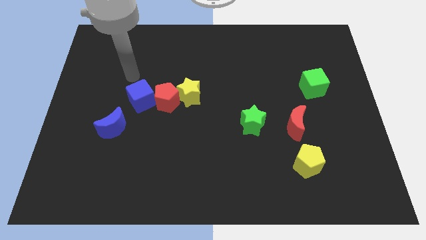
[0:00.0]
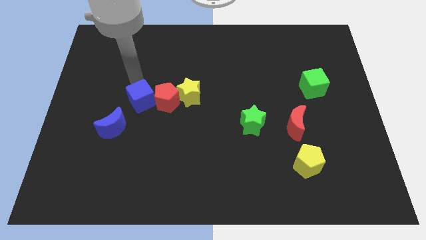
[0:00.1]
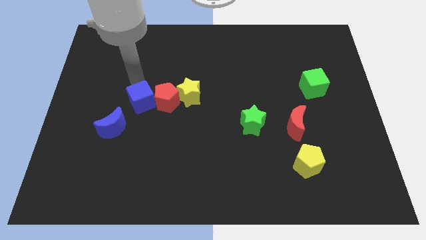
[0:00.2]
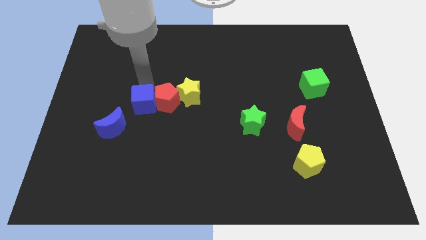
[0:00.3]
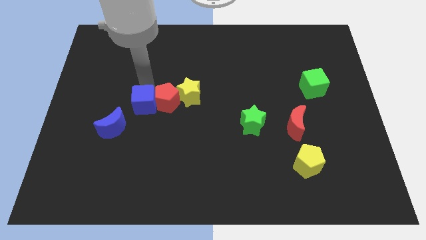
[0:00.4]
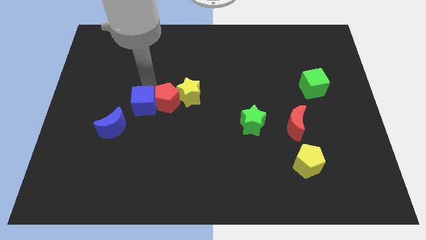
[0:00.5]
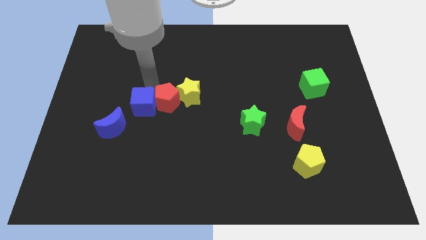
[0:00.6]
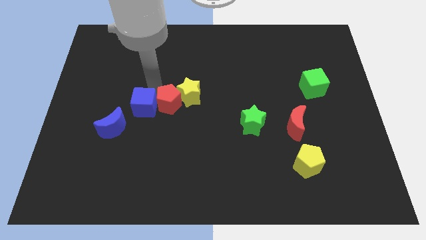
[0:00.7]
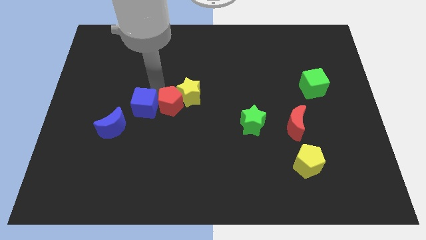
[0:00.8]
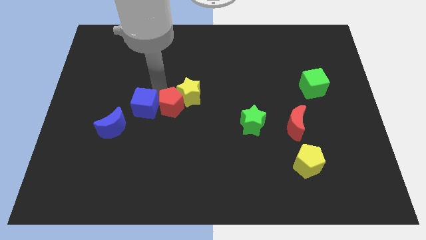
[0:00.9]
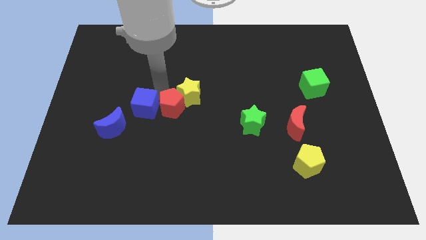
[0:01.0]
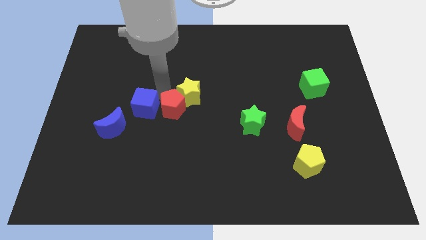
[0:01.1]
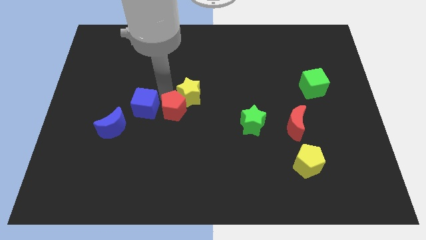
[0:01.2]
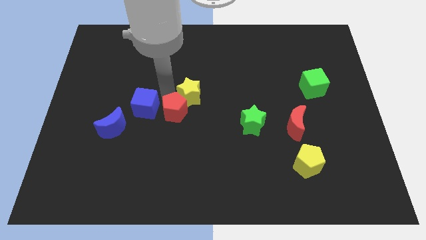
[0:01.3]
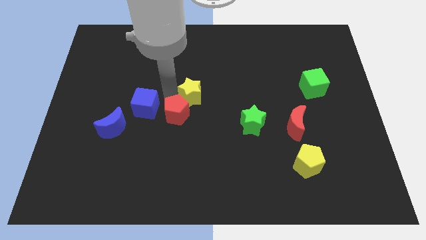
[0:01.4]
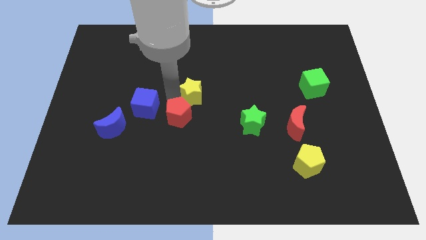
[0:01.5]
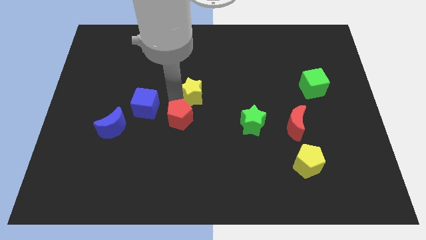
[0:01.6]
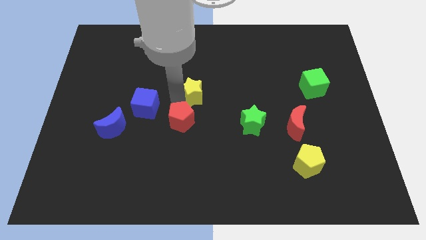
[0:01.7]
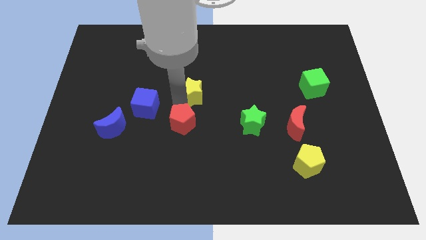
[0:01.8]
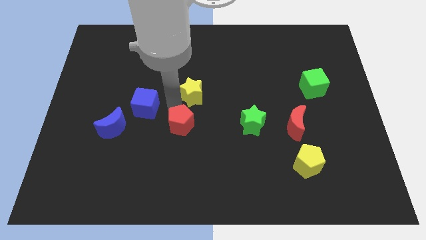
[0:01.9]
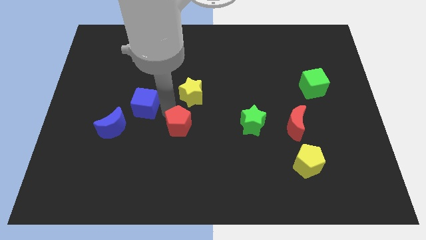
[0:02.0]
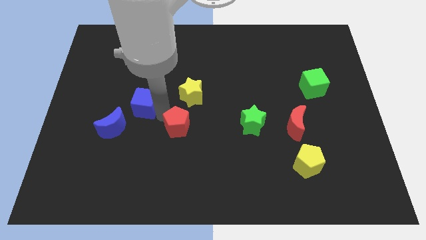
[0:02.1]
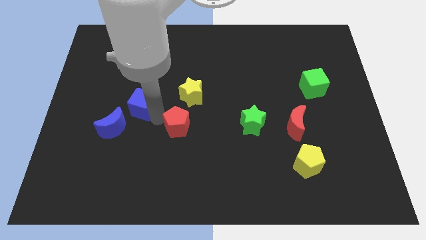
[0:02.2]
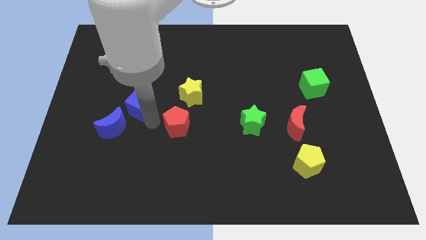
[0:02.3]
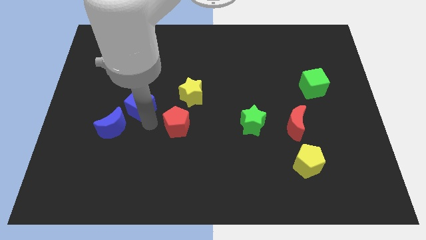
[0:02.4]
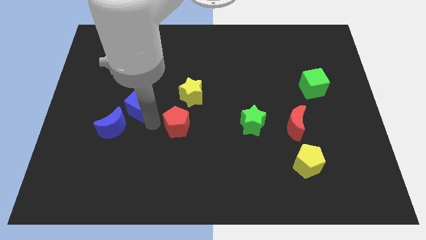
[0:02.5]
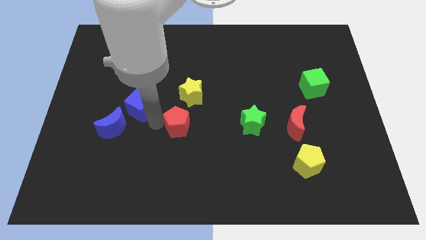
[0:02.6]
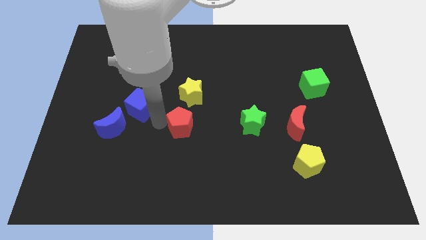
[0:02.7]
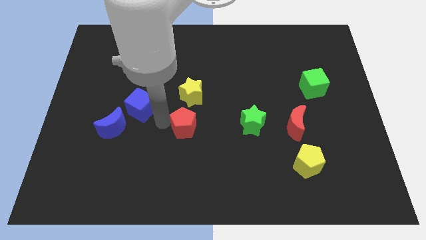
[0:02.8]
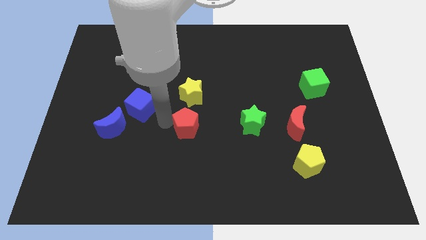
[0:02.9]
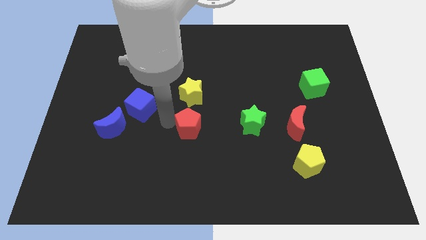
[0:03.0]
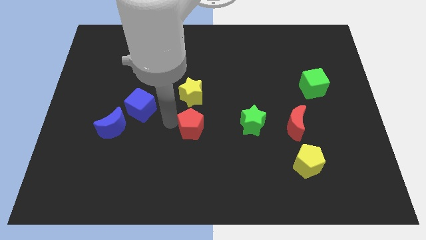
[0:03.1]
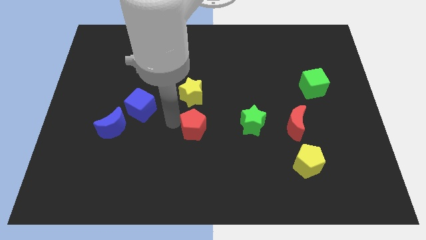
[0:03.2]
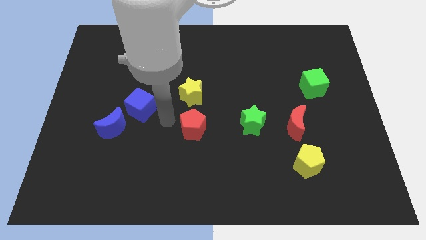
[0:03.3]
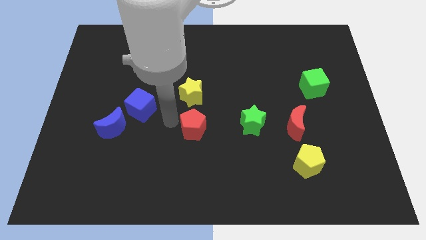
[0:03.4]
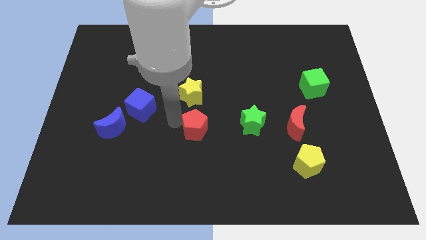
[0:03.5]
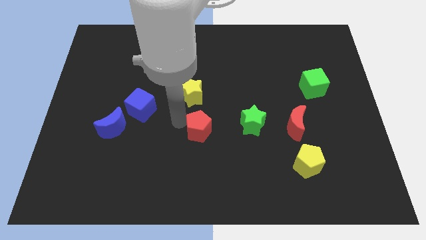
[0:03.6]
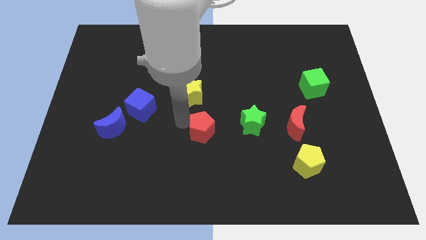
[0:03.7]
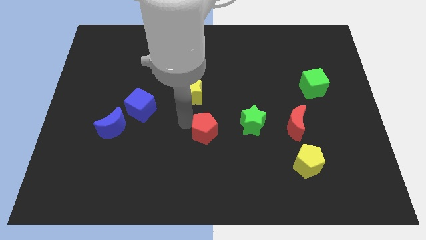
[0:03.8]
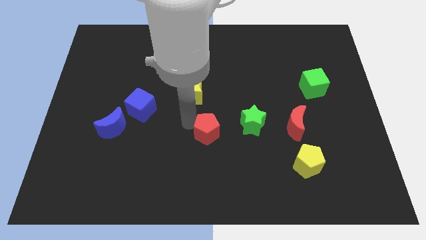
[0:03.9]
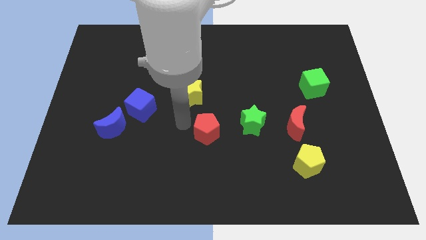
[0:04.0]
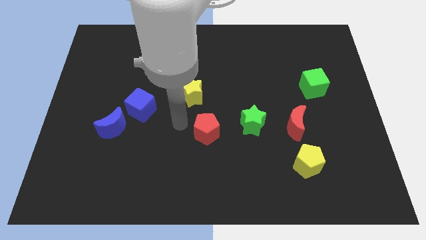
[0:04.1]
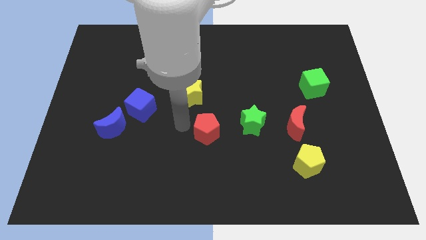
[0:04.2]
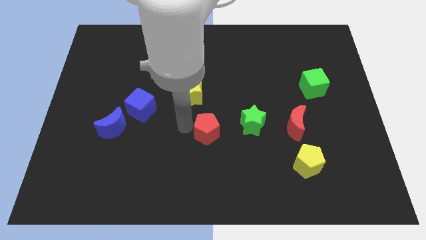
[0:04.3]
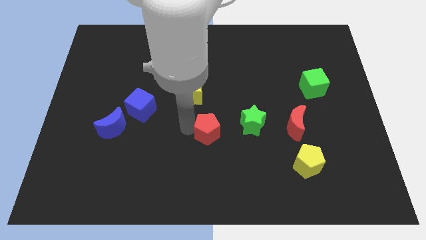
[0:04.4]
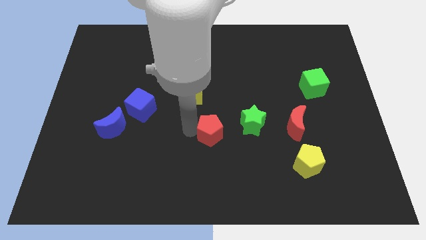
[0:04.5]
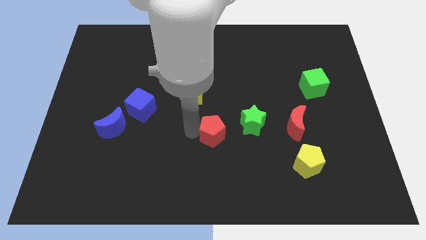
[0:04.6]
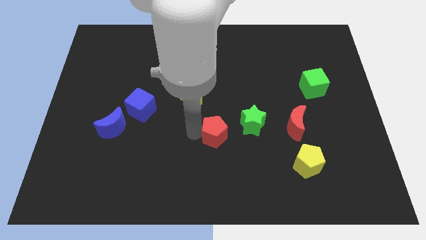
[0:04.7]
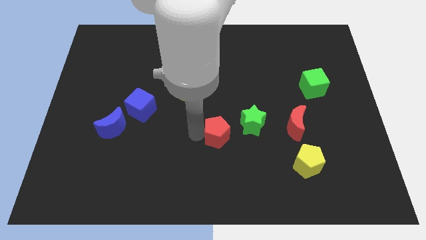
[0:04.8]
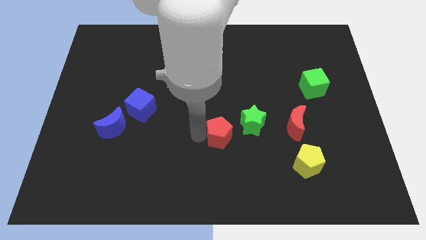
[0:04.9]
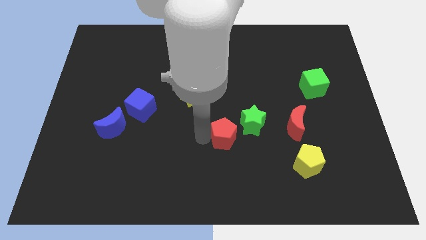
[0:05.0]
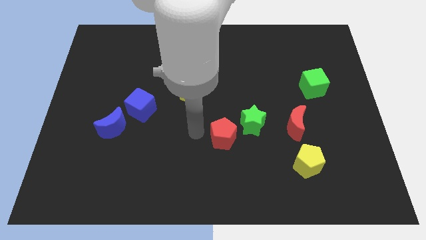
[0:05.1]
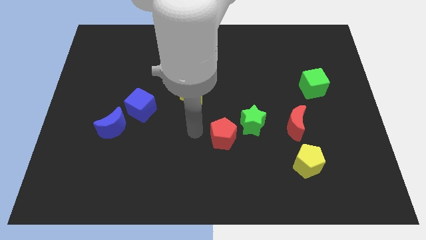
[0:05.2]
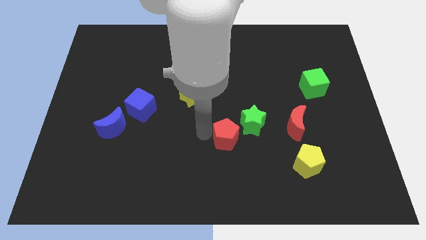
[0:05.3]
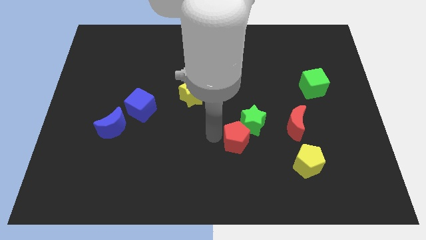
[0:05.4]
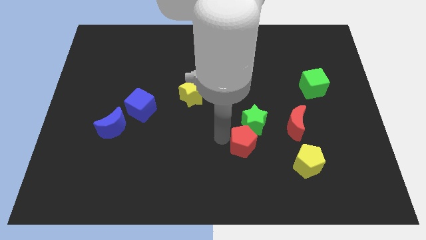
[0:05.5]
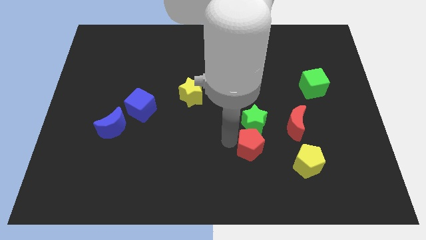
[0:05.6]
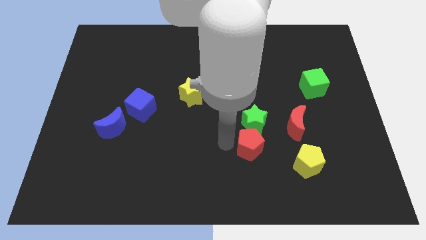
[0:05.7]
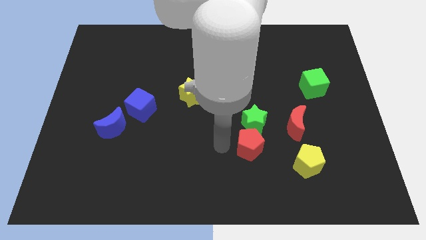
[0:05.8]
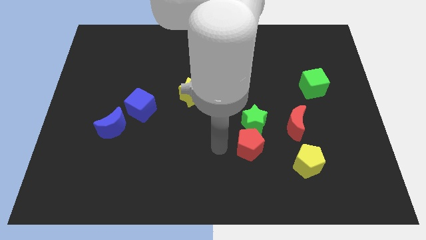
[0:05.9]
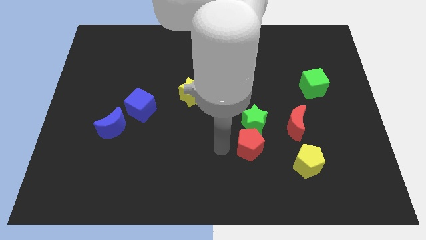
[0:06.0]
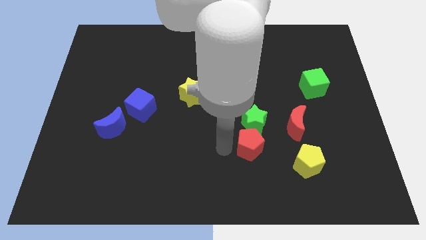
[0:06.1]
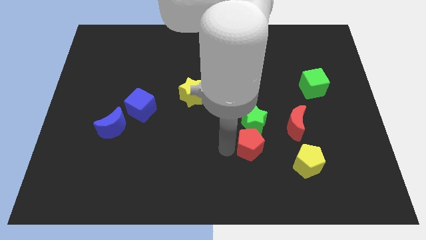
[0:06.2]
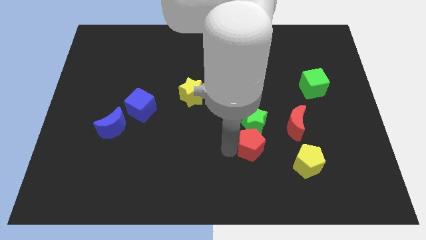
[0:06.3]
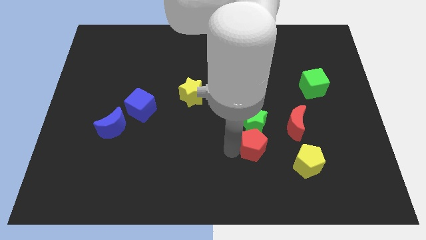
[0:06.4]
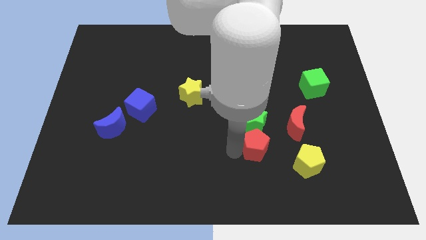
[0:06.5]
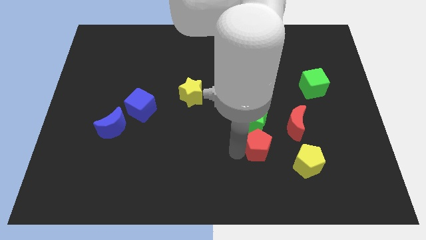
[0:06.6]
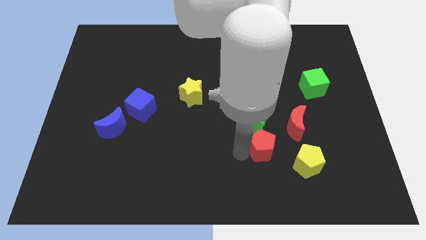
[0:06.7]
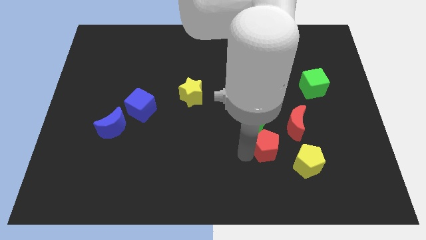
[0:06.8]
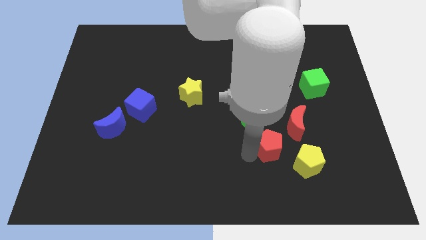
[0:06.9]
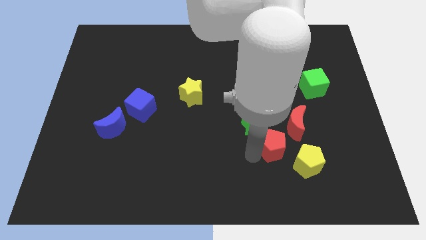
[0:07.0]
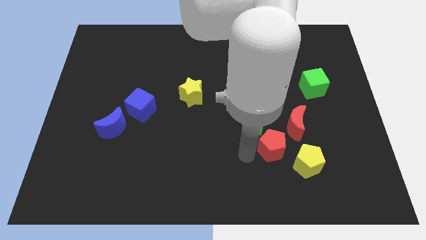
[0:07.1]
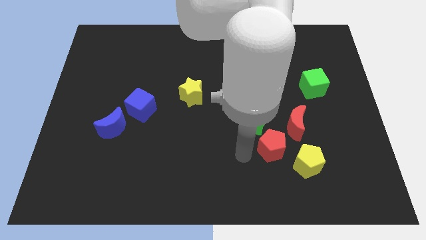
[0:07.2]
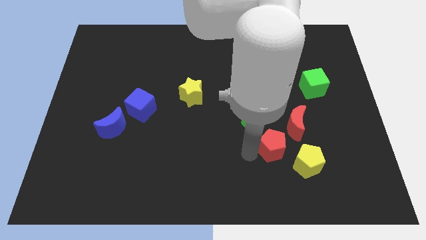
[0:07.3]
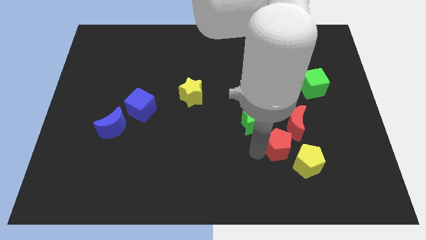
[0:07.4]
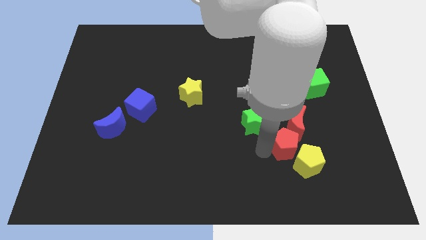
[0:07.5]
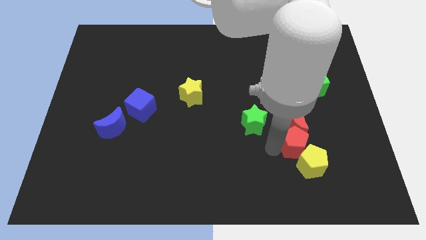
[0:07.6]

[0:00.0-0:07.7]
slide the red pentagon diagonally down and to the right of the red moon
